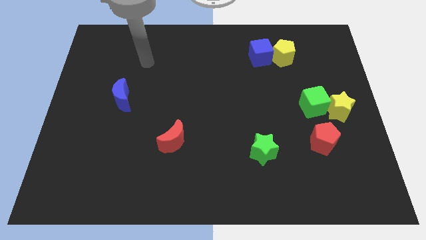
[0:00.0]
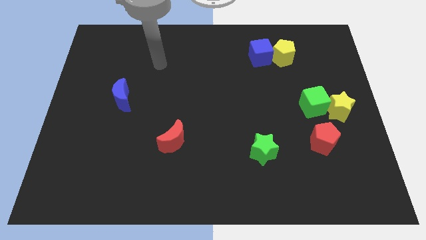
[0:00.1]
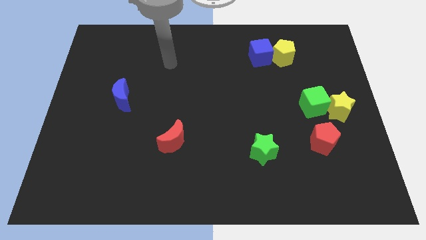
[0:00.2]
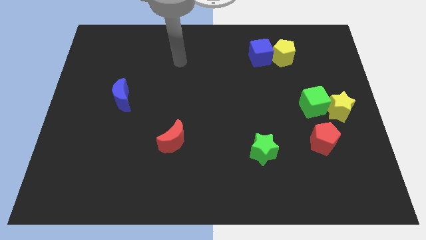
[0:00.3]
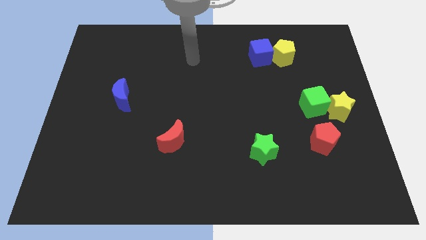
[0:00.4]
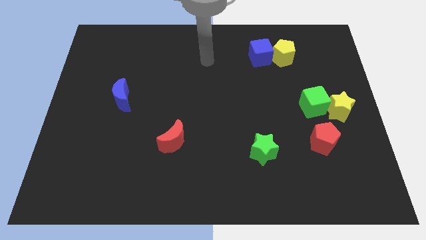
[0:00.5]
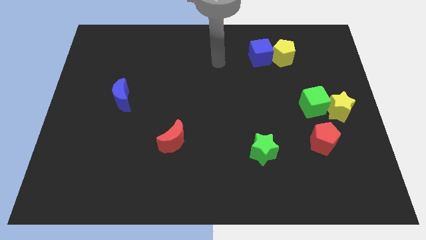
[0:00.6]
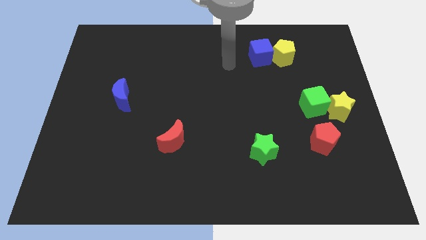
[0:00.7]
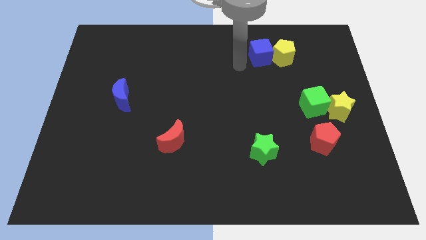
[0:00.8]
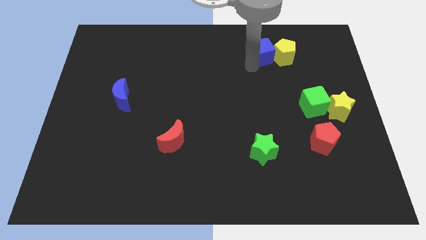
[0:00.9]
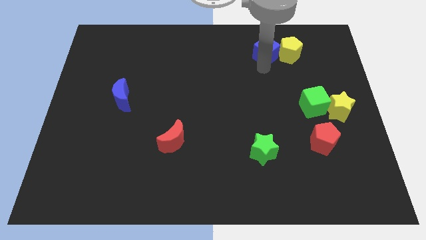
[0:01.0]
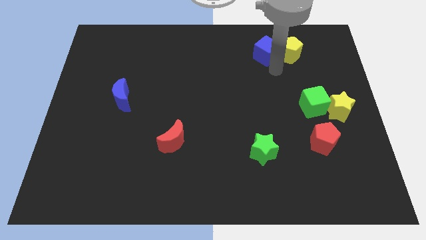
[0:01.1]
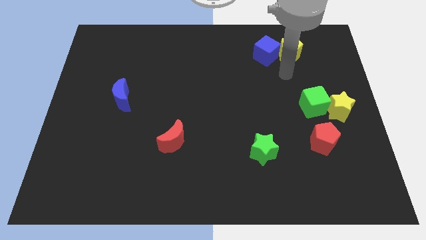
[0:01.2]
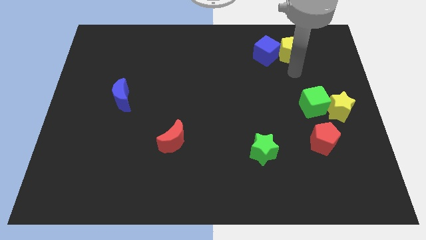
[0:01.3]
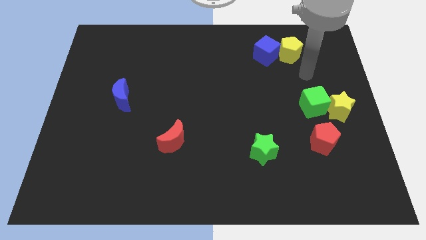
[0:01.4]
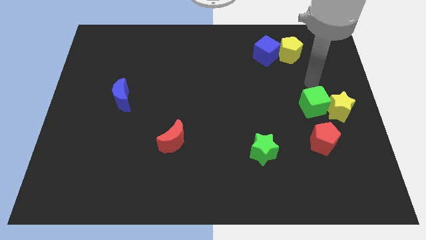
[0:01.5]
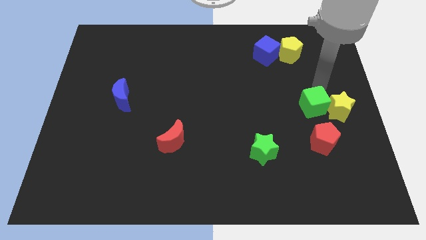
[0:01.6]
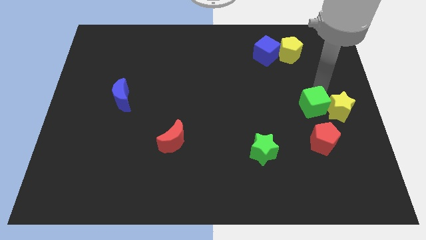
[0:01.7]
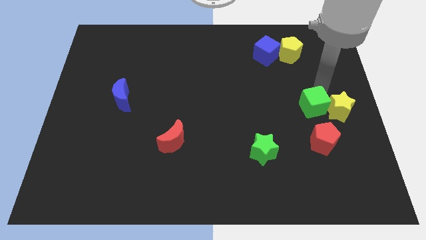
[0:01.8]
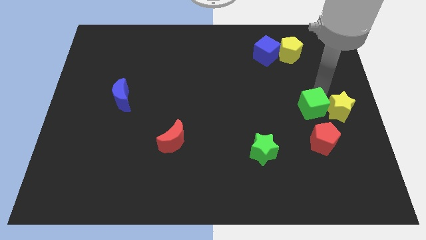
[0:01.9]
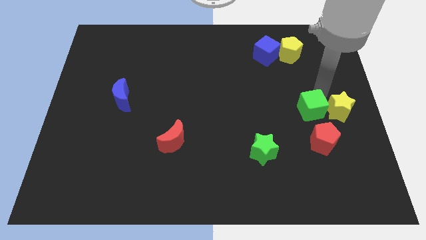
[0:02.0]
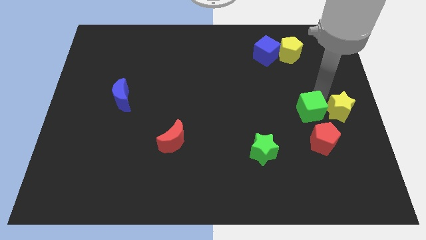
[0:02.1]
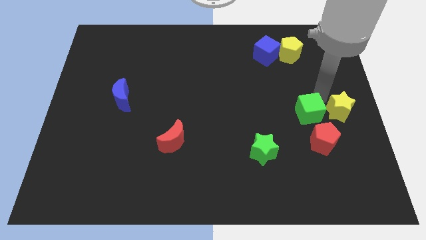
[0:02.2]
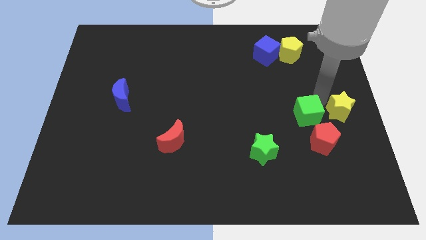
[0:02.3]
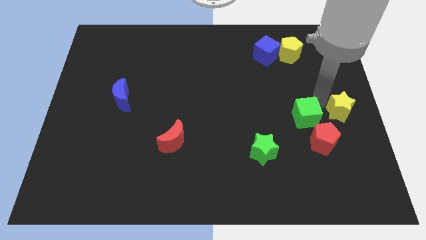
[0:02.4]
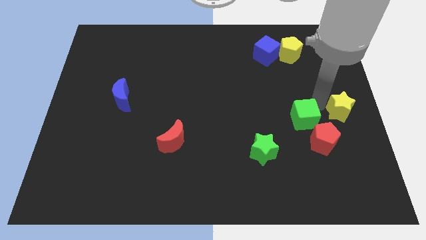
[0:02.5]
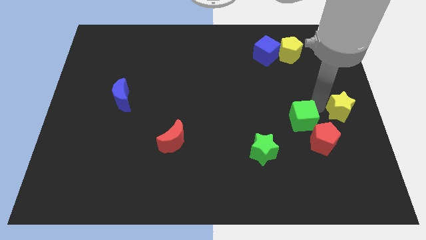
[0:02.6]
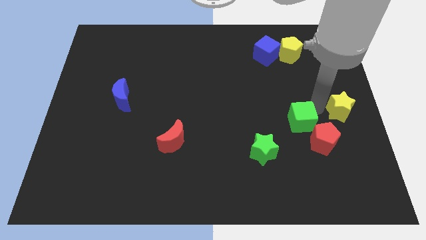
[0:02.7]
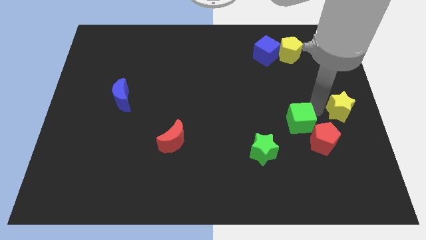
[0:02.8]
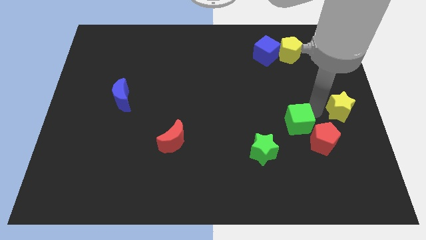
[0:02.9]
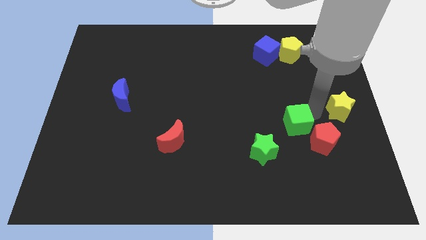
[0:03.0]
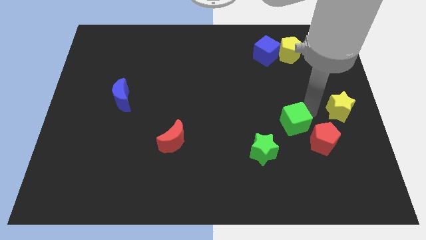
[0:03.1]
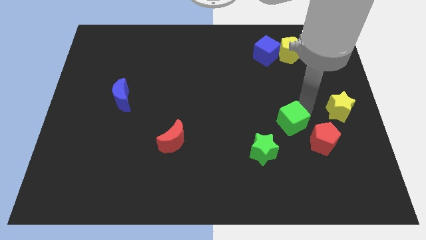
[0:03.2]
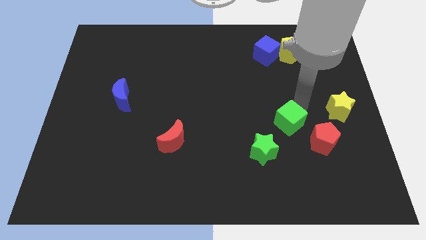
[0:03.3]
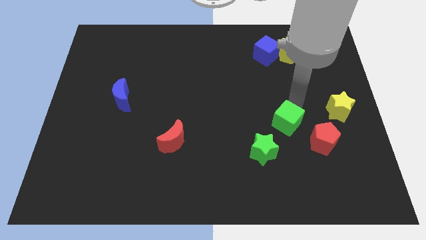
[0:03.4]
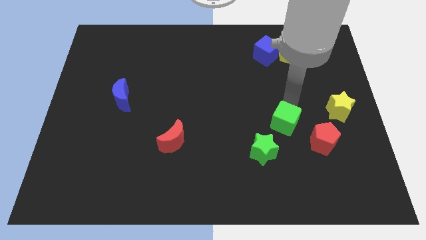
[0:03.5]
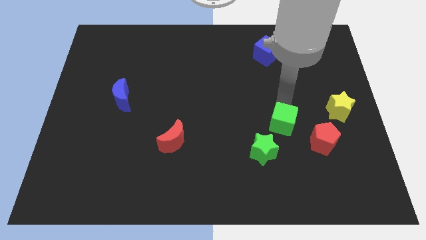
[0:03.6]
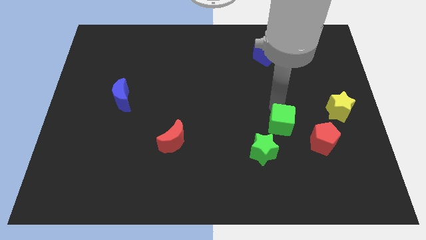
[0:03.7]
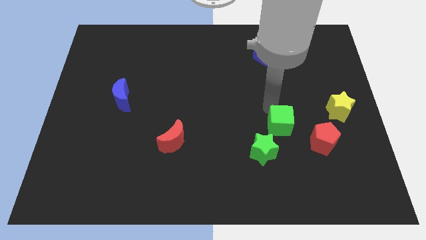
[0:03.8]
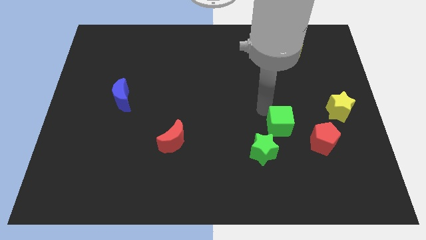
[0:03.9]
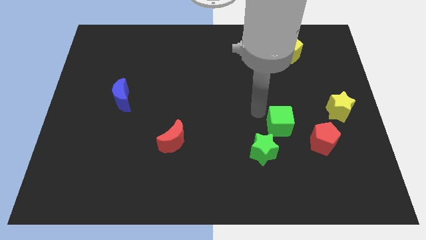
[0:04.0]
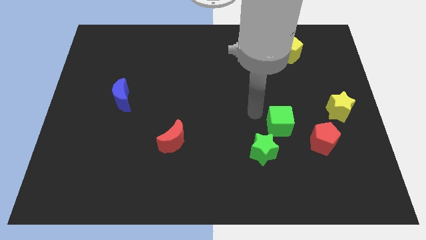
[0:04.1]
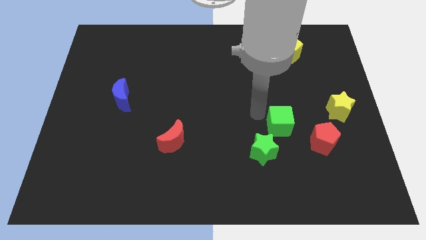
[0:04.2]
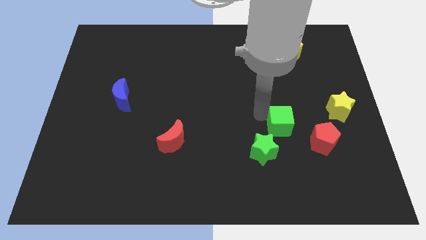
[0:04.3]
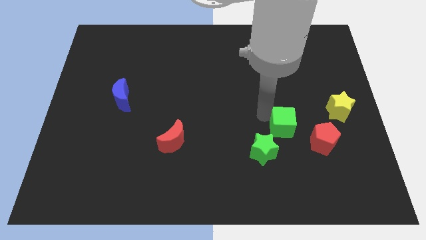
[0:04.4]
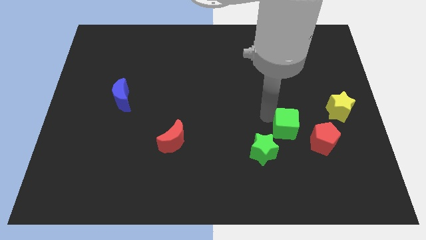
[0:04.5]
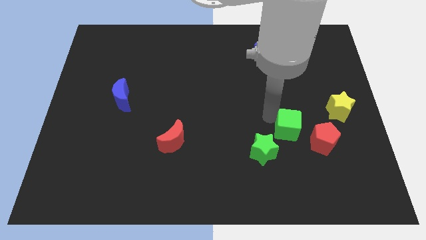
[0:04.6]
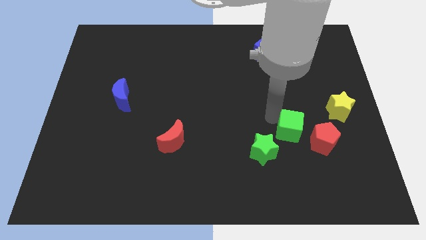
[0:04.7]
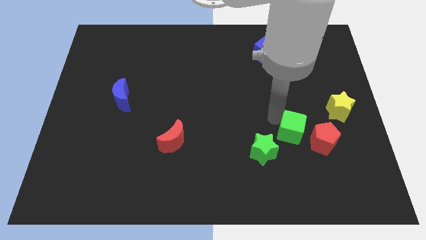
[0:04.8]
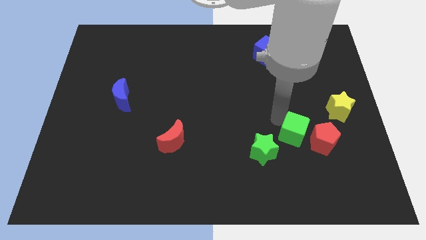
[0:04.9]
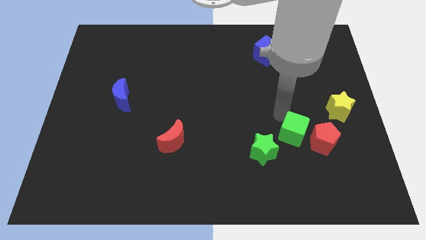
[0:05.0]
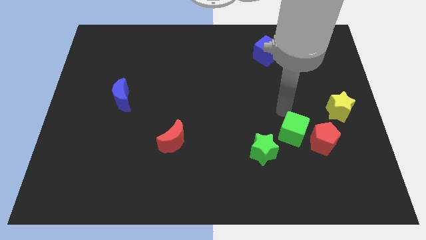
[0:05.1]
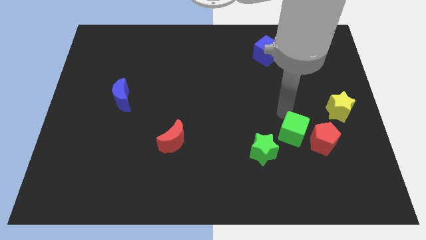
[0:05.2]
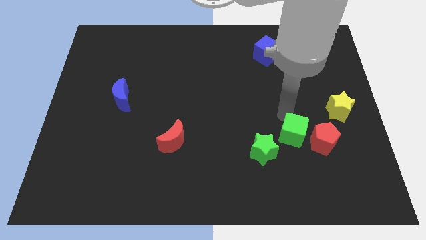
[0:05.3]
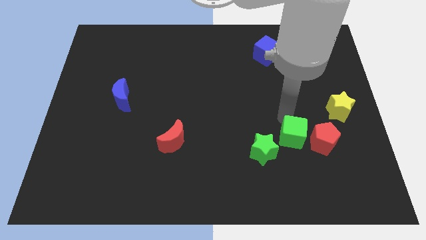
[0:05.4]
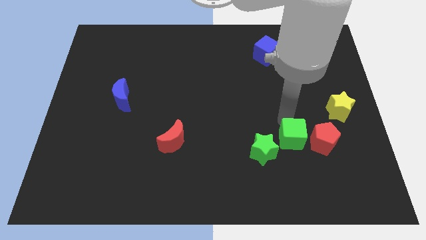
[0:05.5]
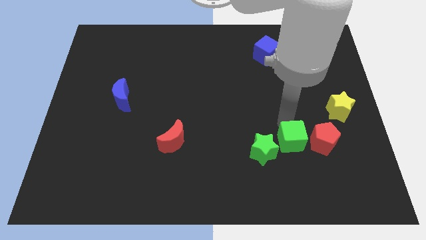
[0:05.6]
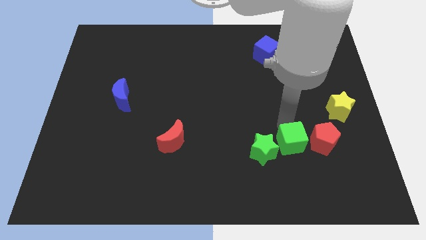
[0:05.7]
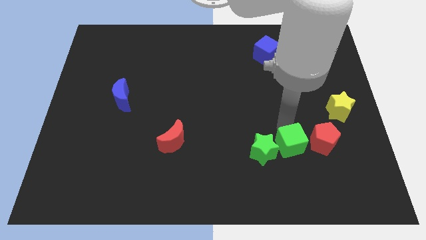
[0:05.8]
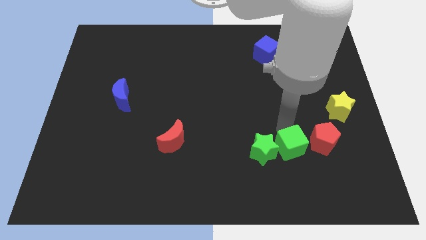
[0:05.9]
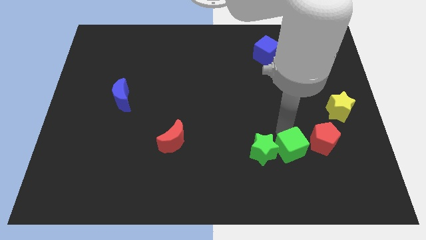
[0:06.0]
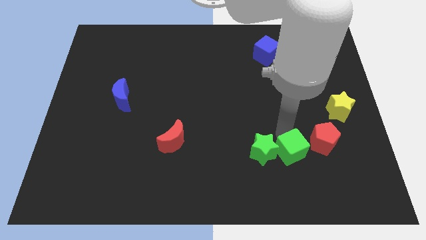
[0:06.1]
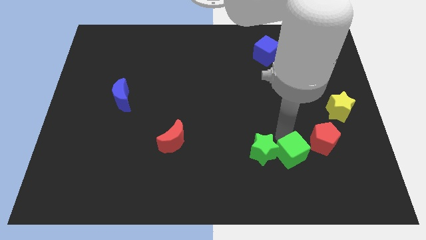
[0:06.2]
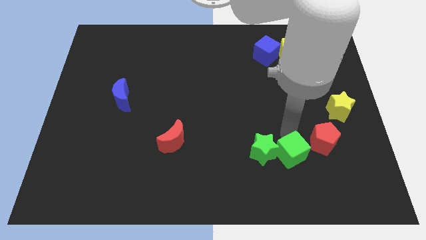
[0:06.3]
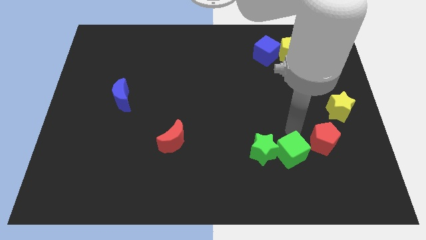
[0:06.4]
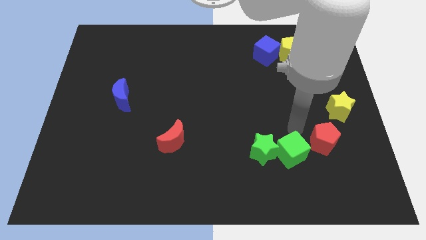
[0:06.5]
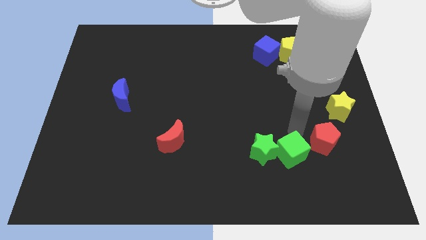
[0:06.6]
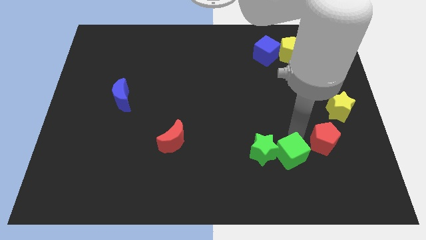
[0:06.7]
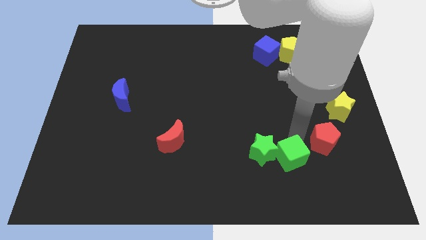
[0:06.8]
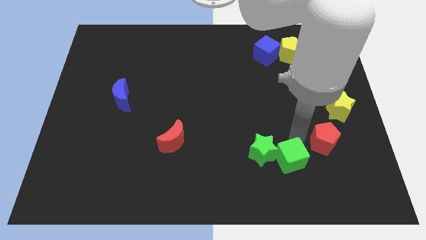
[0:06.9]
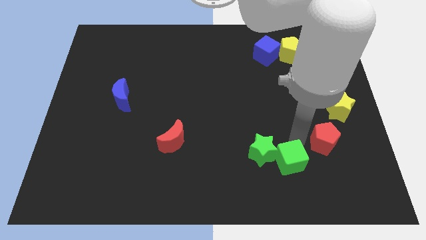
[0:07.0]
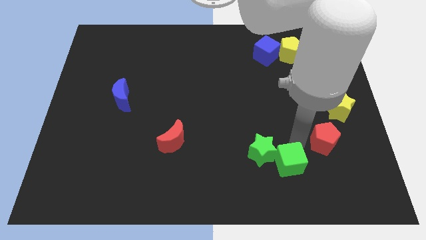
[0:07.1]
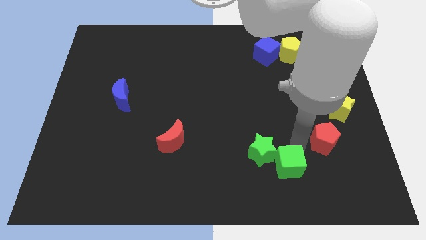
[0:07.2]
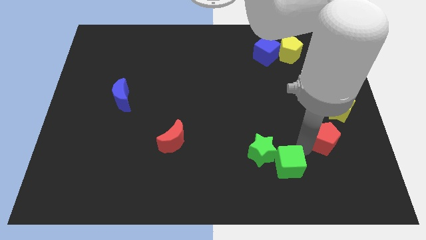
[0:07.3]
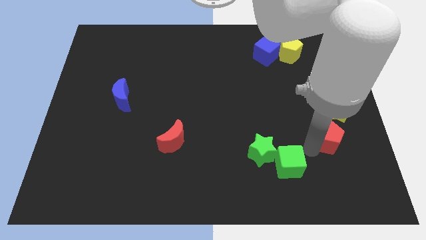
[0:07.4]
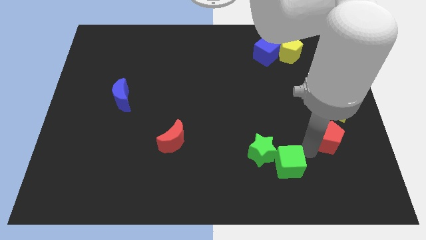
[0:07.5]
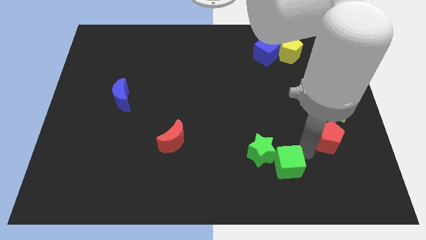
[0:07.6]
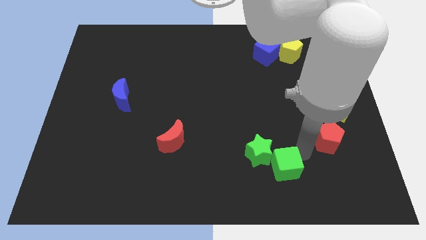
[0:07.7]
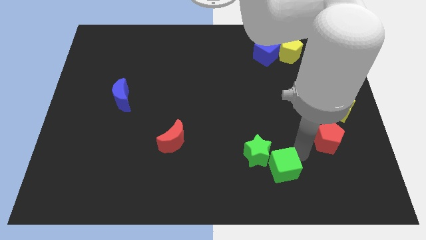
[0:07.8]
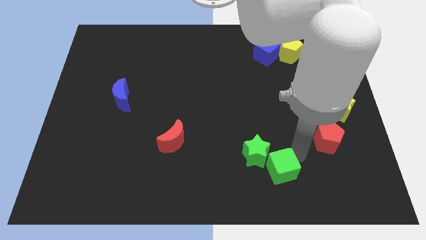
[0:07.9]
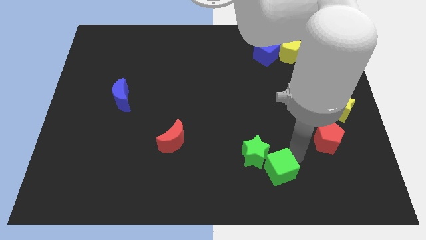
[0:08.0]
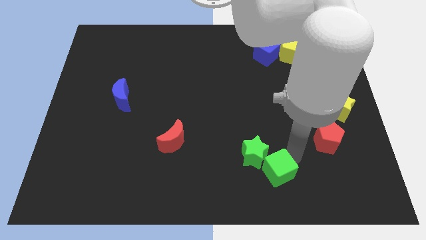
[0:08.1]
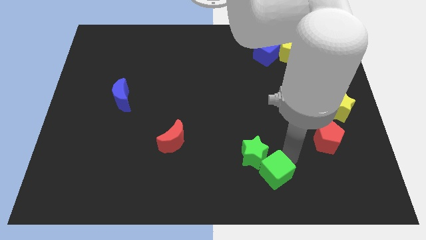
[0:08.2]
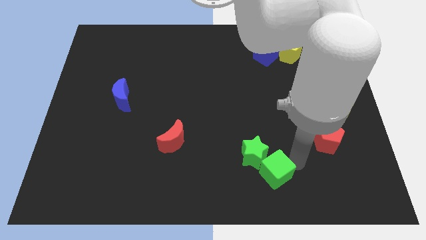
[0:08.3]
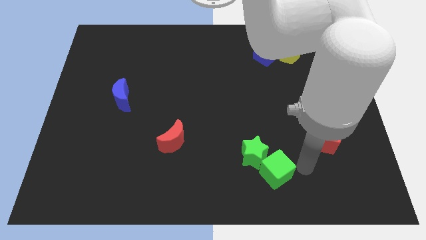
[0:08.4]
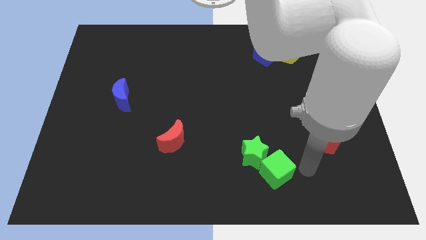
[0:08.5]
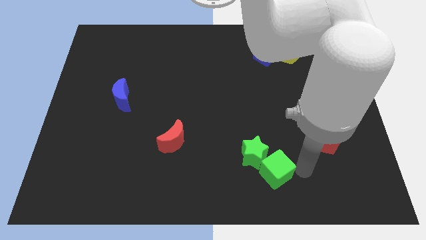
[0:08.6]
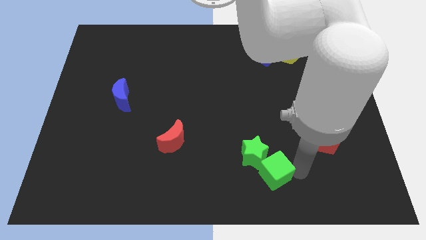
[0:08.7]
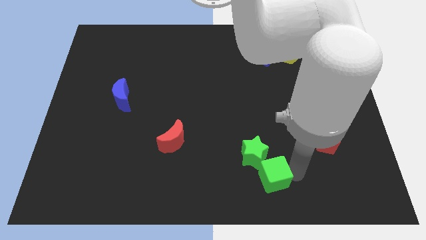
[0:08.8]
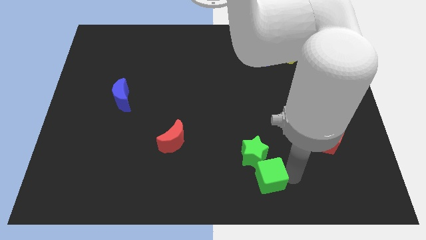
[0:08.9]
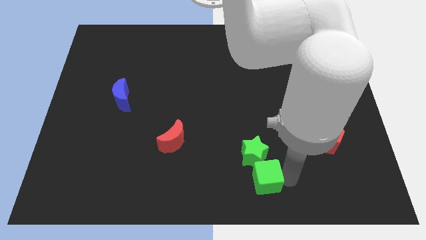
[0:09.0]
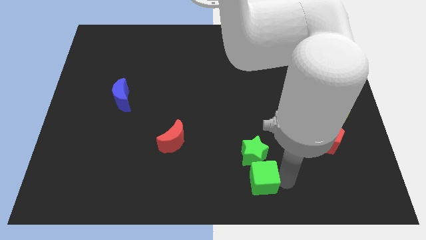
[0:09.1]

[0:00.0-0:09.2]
put the green cube diagonally down and to the left of the green star
